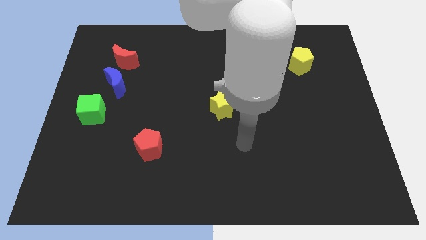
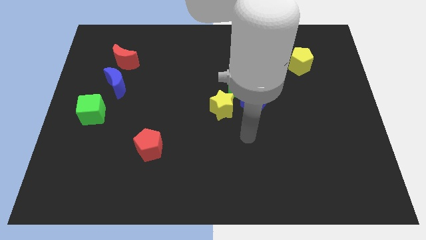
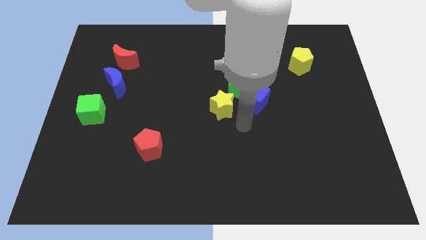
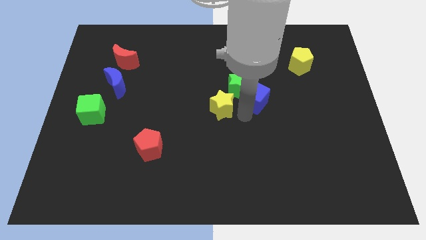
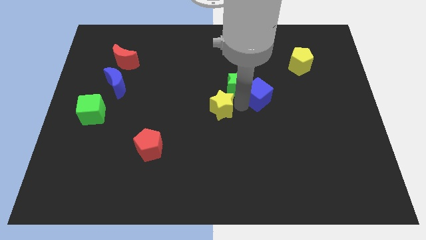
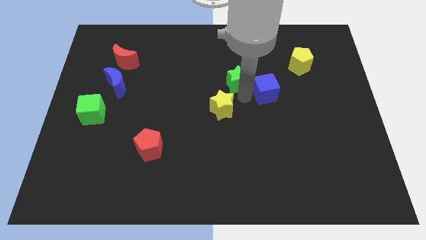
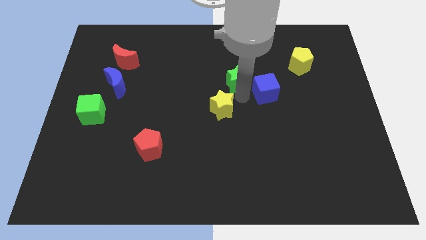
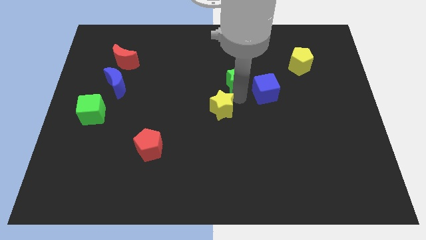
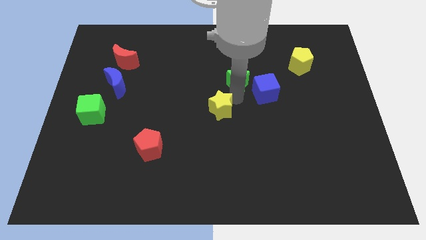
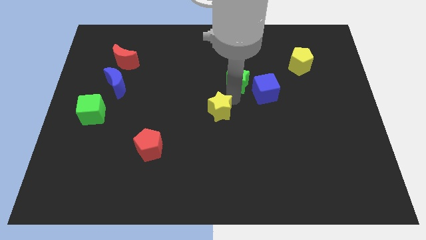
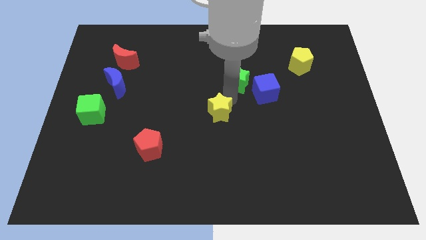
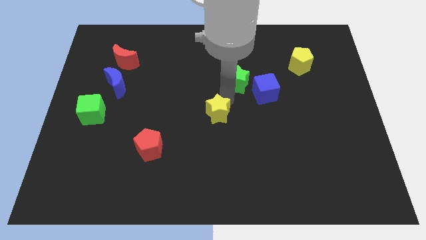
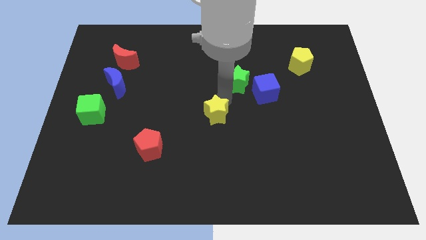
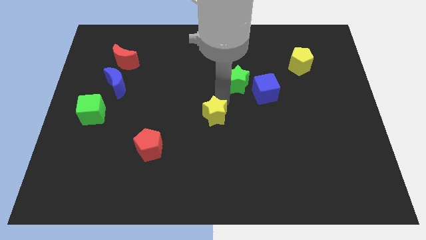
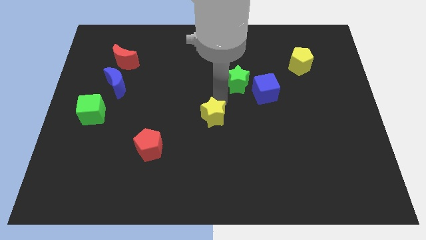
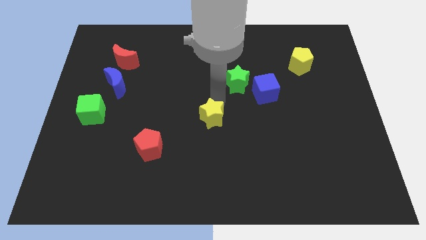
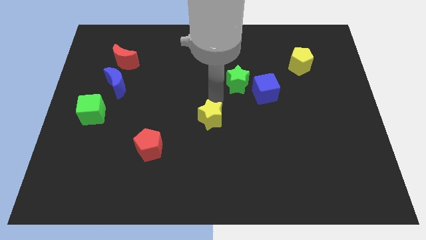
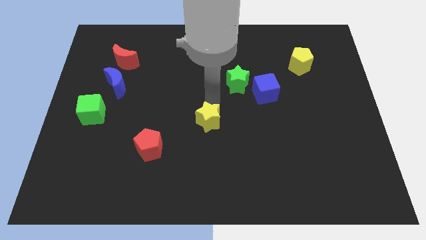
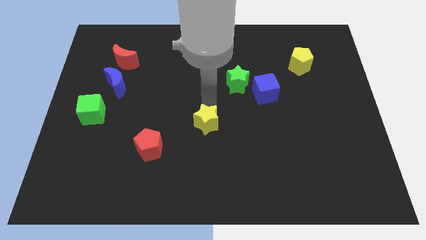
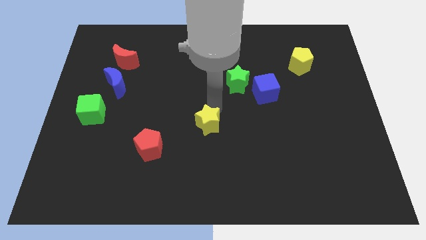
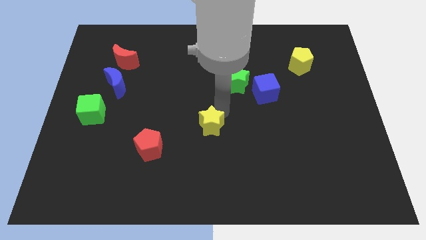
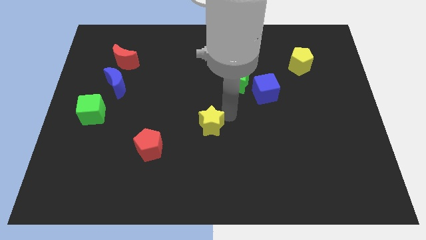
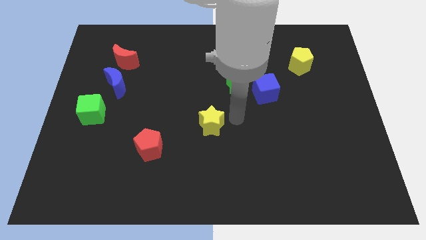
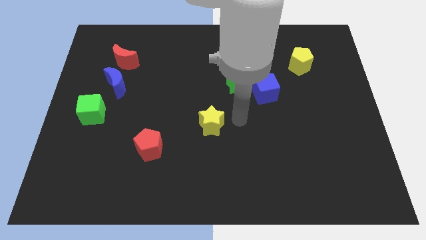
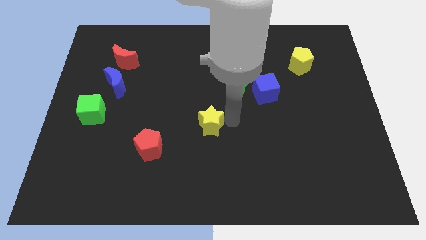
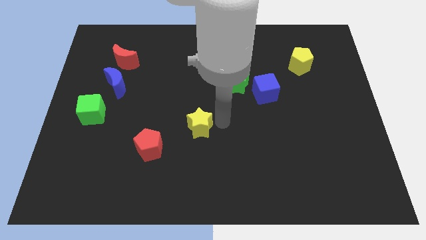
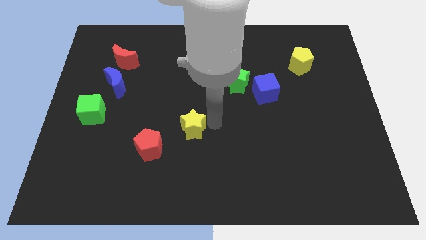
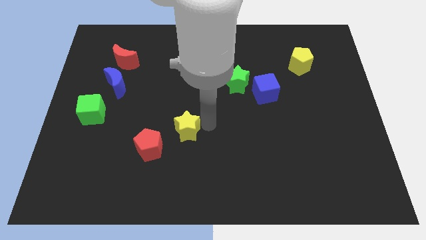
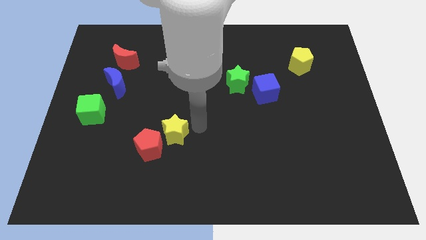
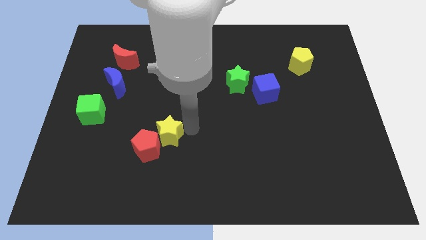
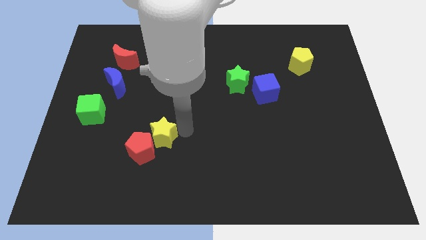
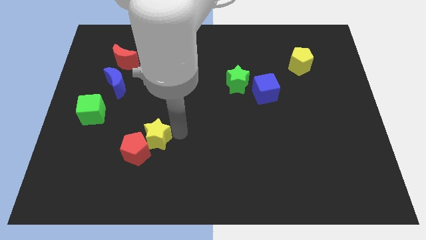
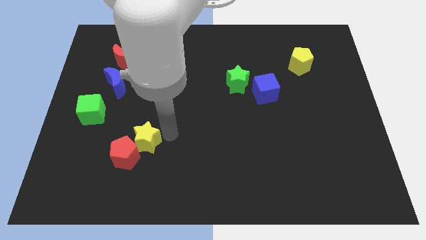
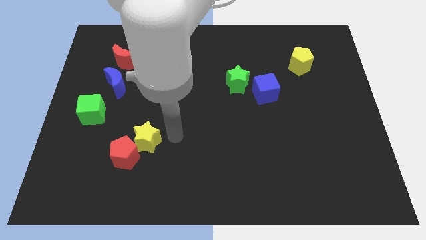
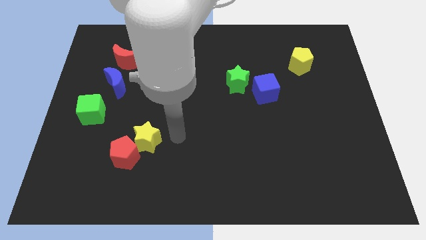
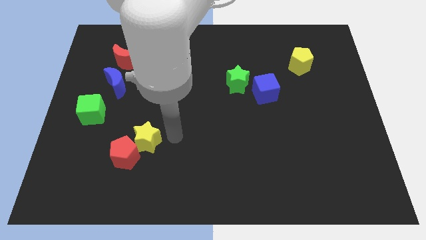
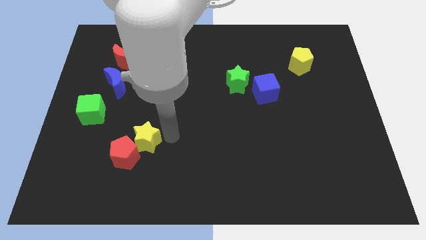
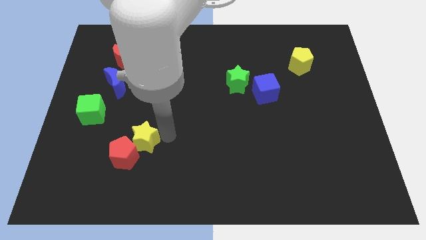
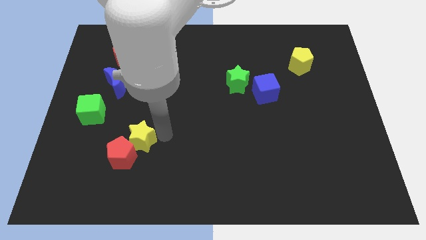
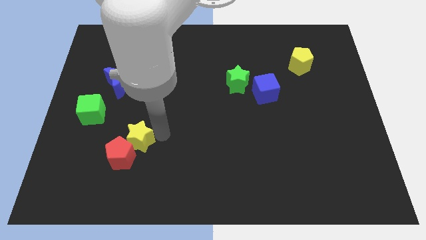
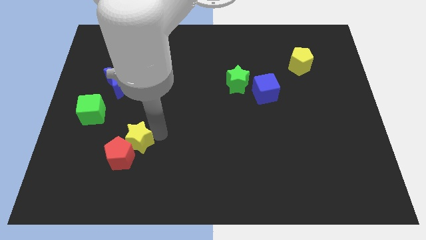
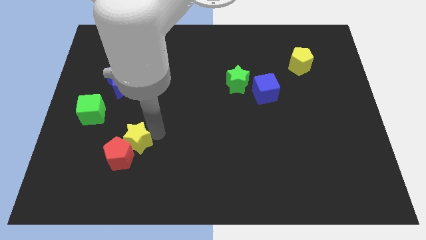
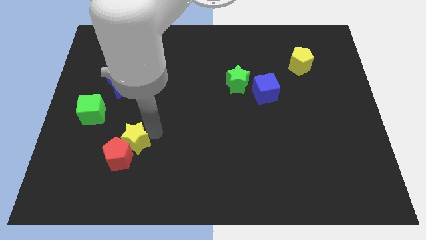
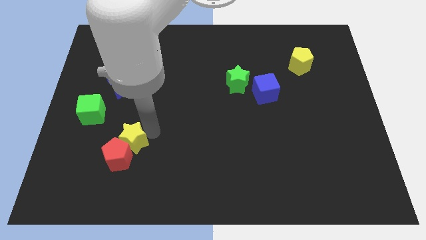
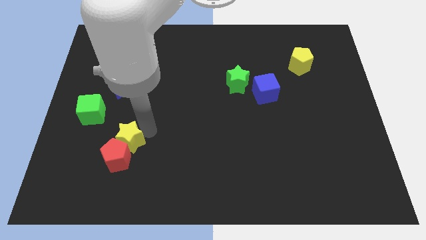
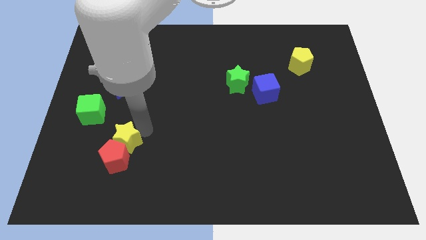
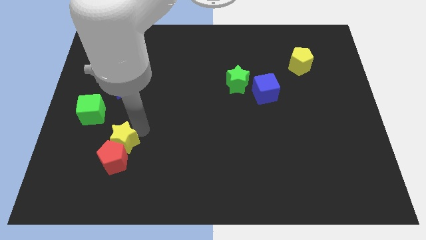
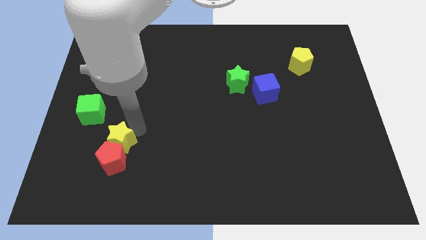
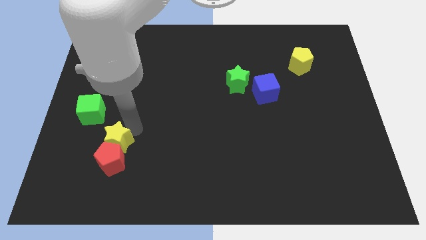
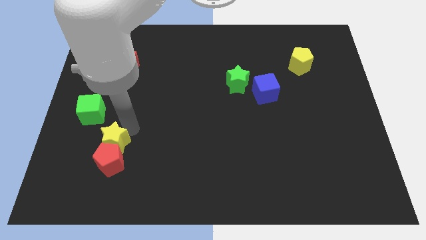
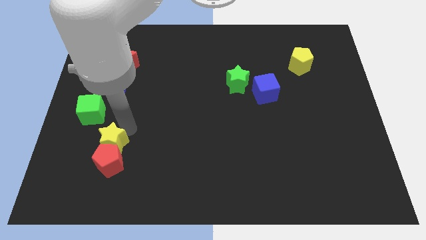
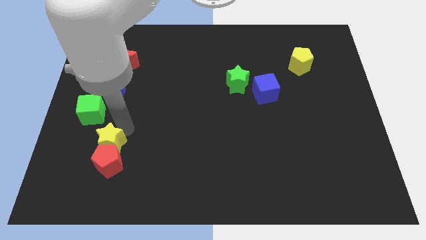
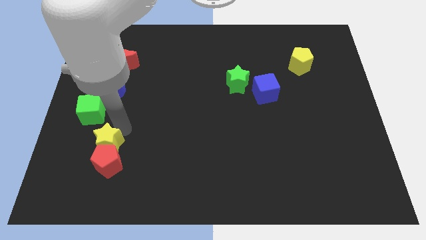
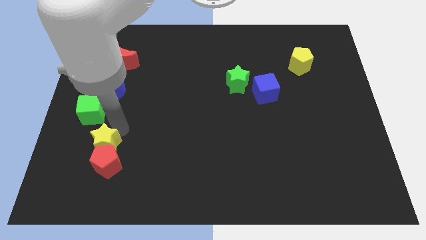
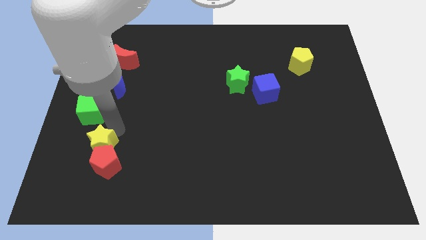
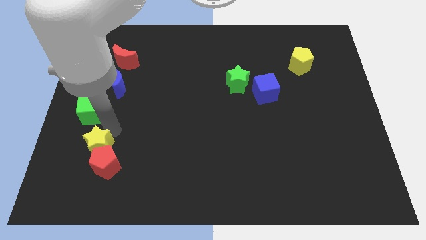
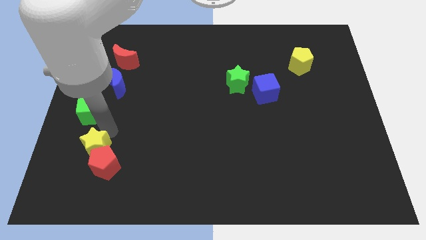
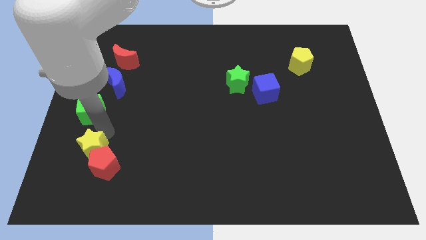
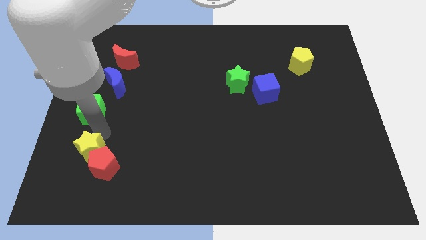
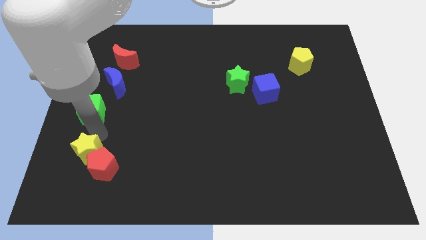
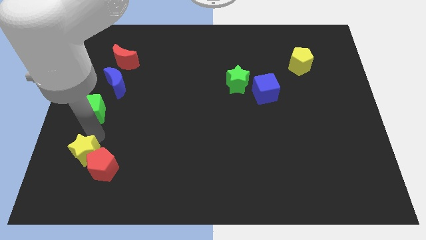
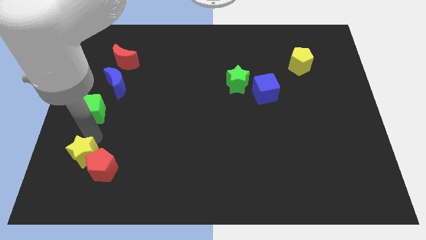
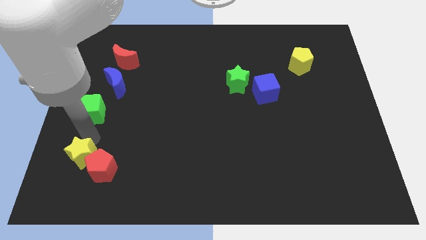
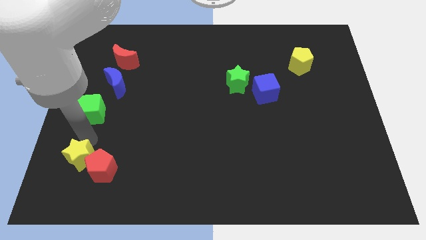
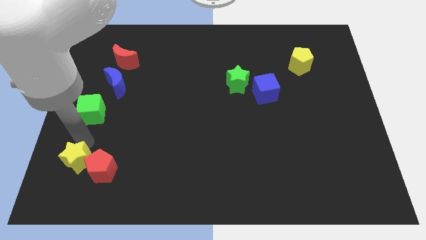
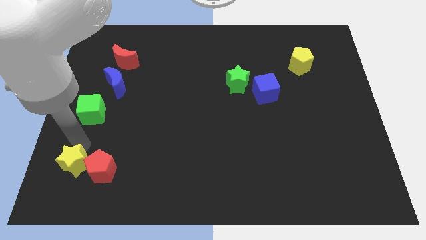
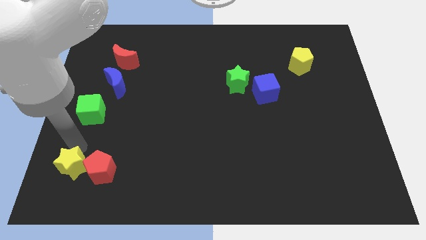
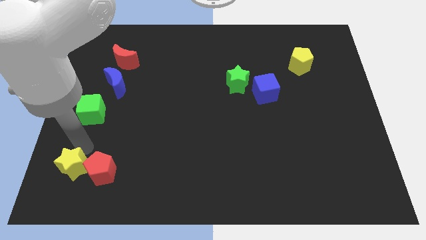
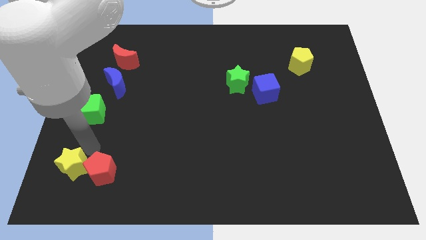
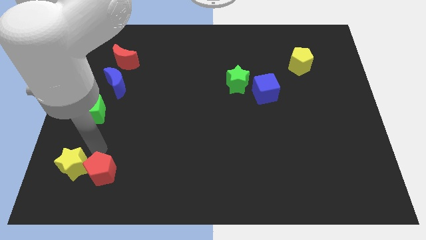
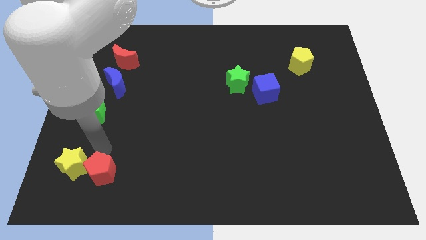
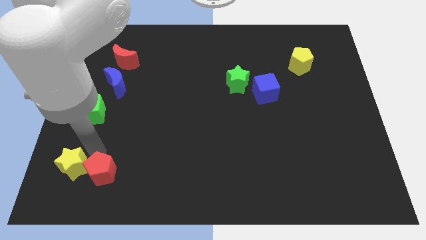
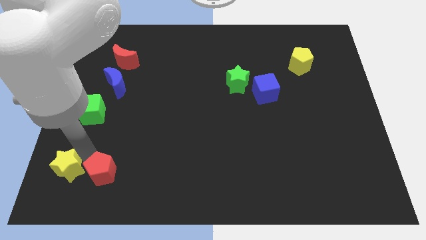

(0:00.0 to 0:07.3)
push the yellow star to the bottom left corner
